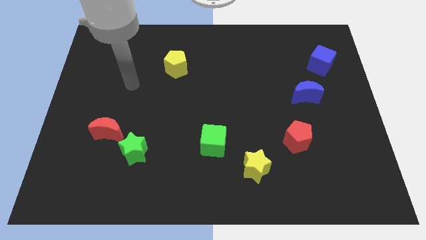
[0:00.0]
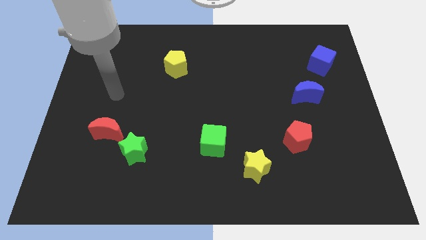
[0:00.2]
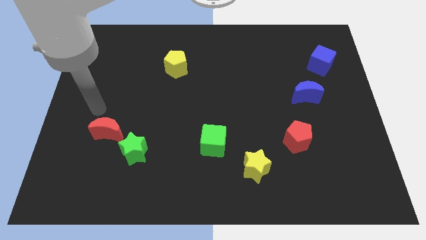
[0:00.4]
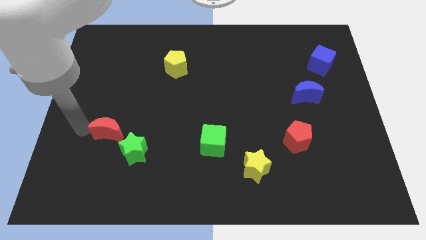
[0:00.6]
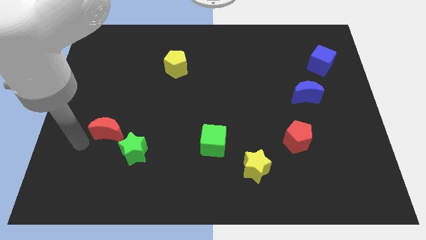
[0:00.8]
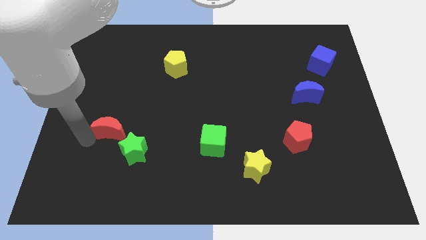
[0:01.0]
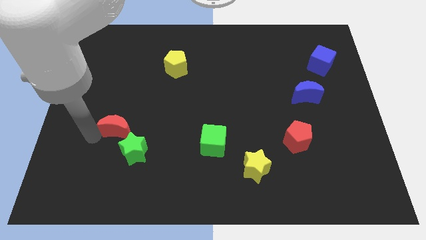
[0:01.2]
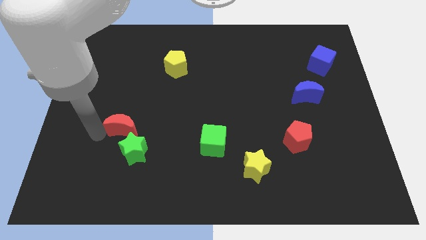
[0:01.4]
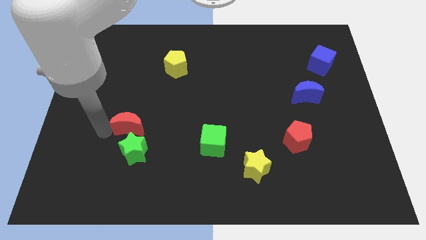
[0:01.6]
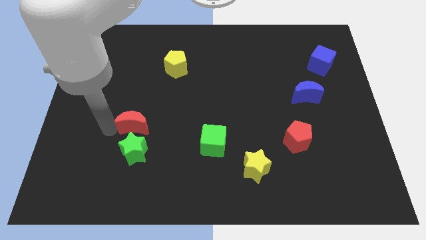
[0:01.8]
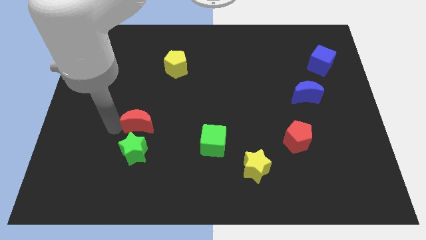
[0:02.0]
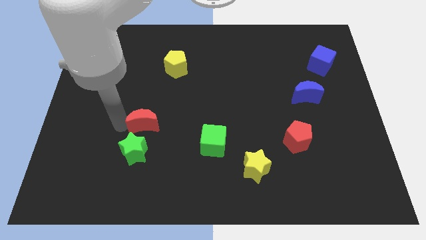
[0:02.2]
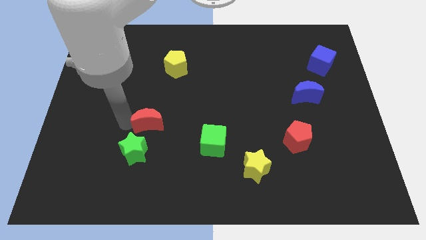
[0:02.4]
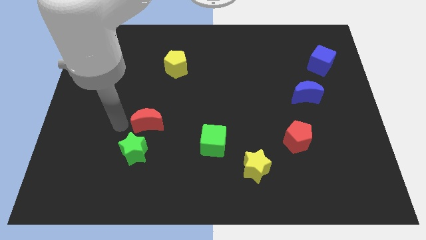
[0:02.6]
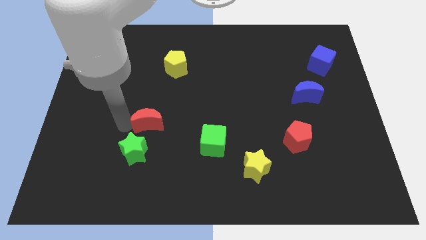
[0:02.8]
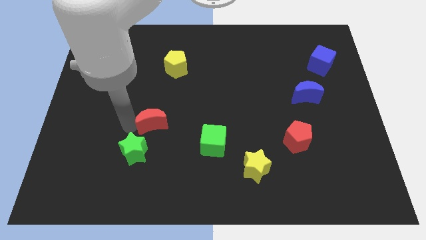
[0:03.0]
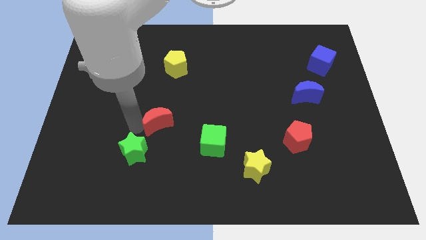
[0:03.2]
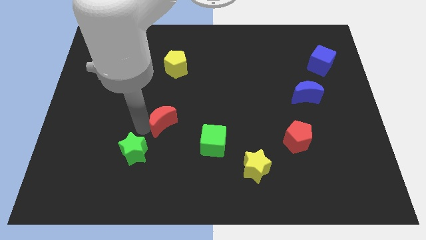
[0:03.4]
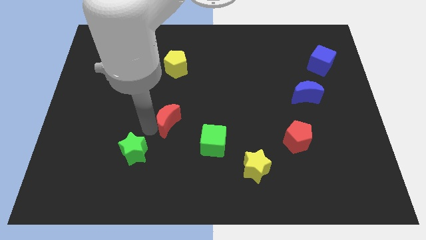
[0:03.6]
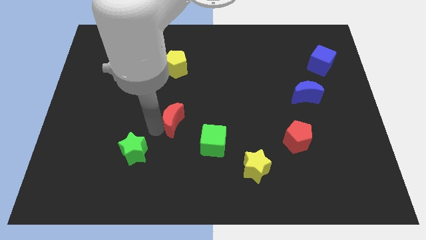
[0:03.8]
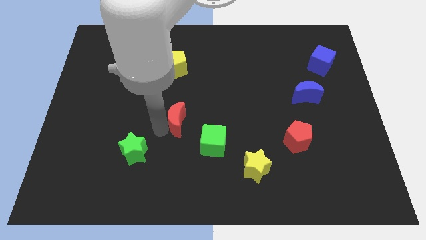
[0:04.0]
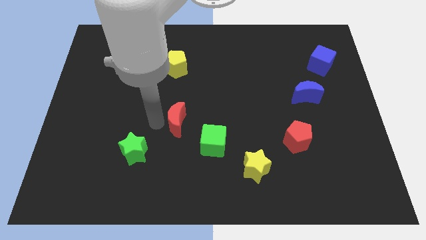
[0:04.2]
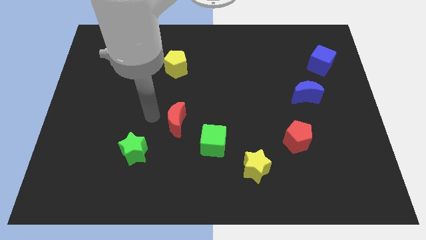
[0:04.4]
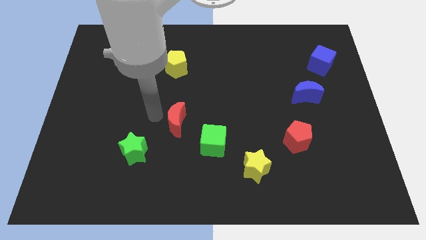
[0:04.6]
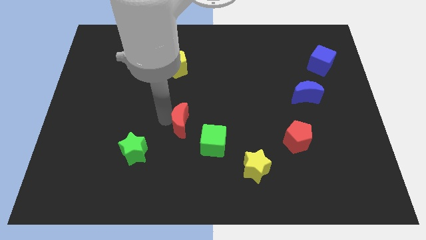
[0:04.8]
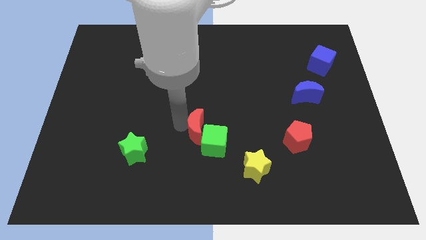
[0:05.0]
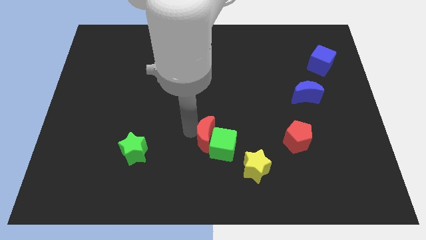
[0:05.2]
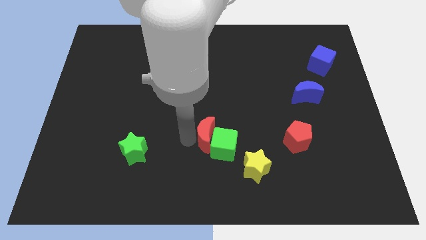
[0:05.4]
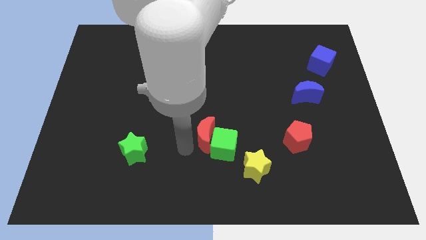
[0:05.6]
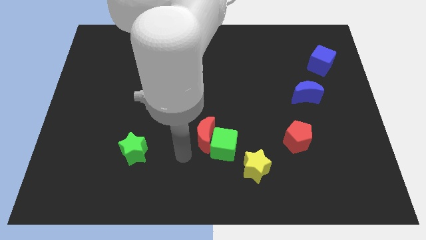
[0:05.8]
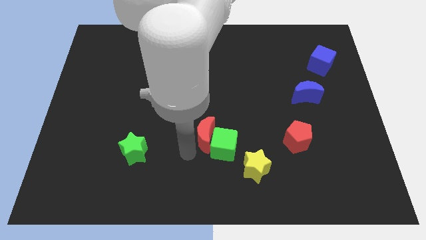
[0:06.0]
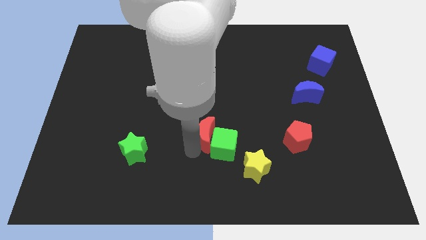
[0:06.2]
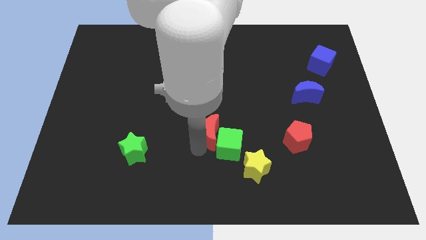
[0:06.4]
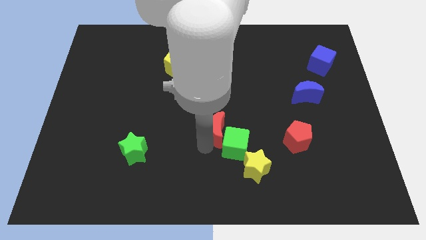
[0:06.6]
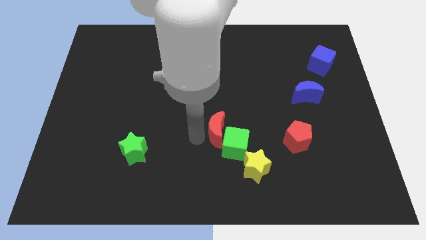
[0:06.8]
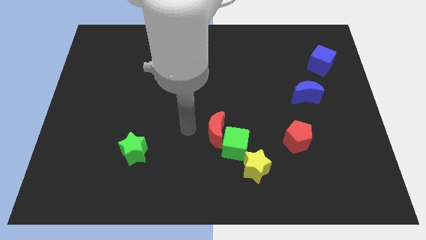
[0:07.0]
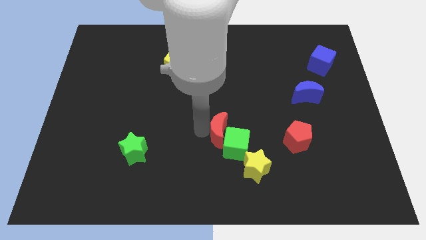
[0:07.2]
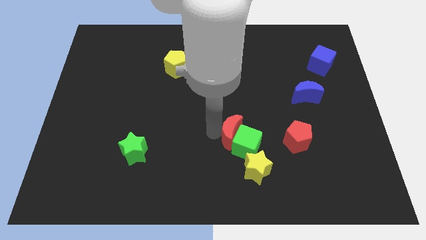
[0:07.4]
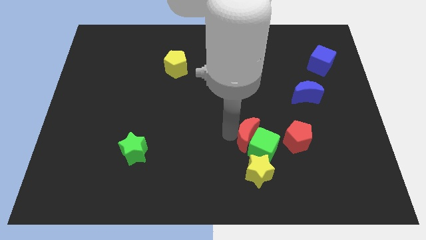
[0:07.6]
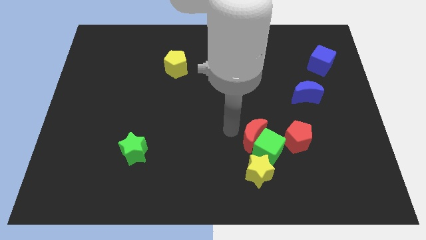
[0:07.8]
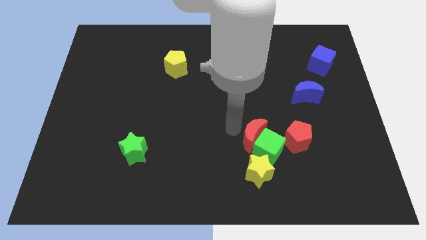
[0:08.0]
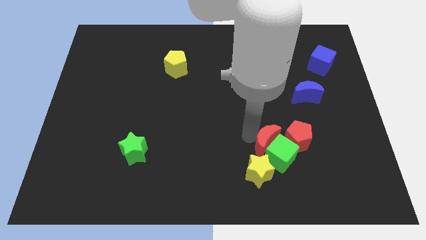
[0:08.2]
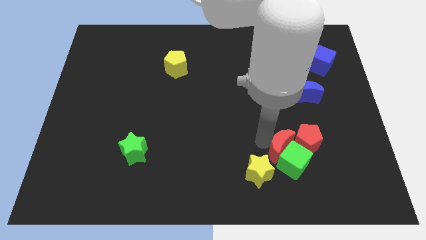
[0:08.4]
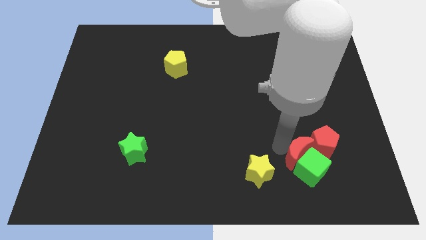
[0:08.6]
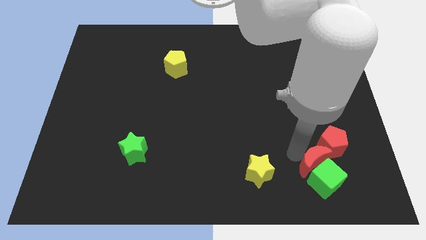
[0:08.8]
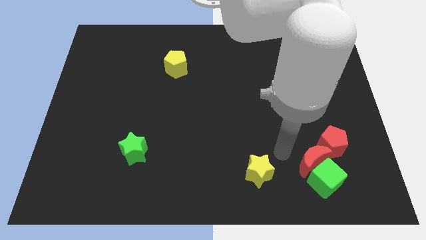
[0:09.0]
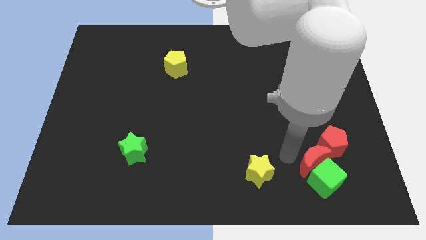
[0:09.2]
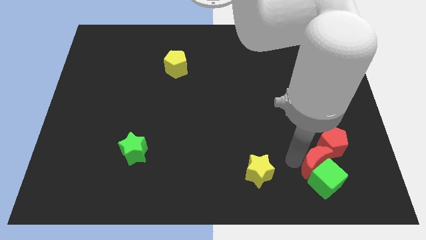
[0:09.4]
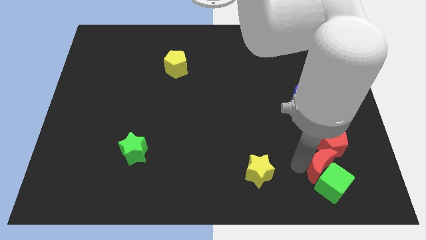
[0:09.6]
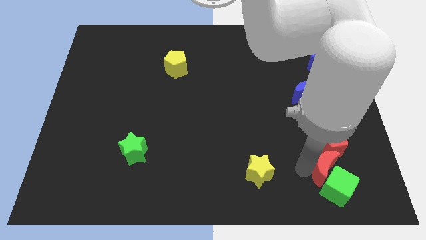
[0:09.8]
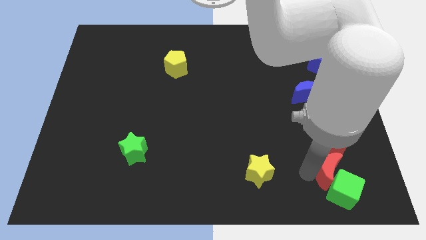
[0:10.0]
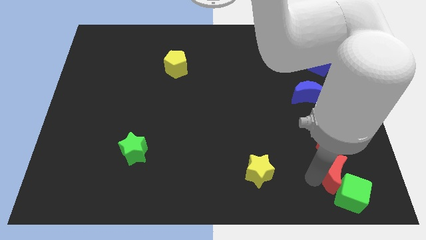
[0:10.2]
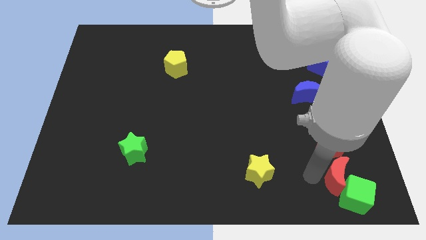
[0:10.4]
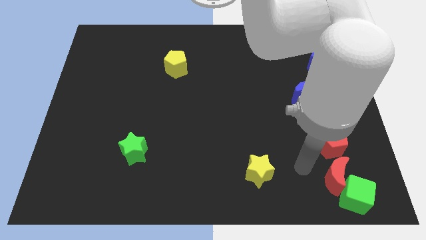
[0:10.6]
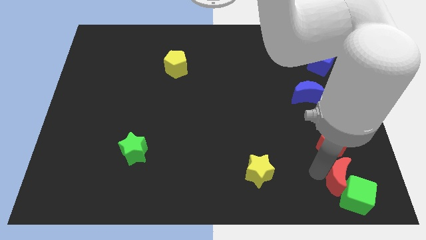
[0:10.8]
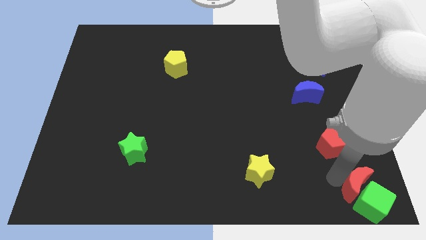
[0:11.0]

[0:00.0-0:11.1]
push the red moon to the bottom right corner

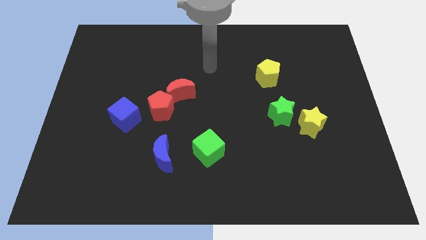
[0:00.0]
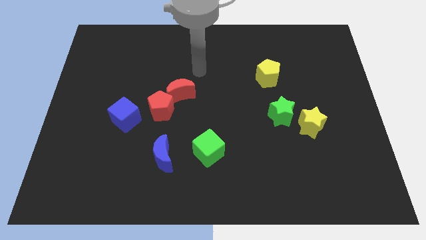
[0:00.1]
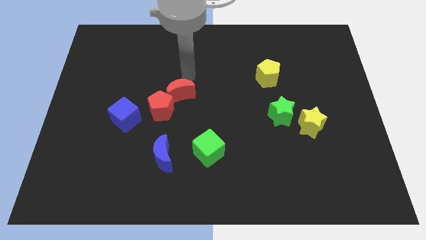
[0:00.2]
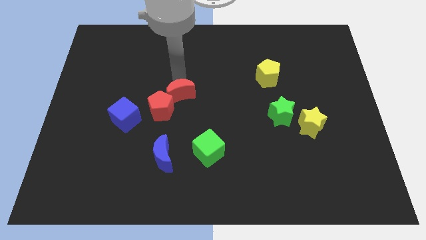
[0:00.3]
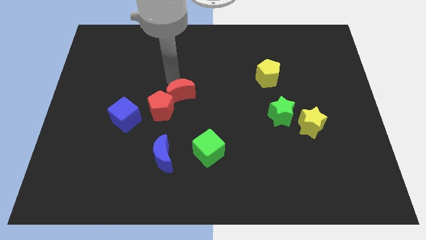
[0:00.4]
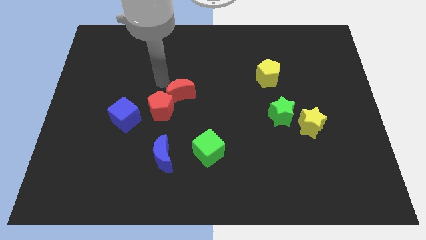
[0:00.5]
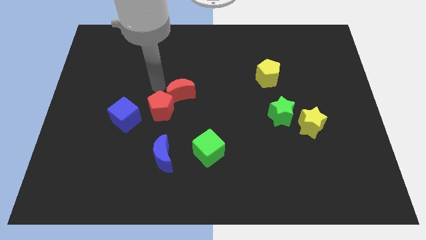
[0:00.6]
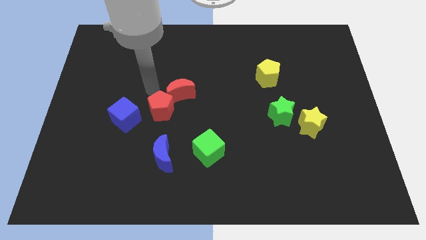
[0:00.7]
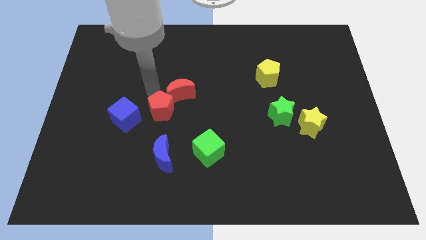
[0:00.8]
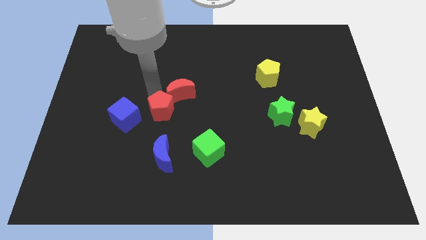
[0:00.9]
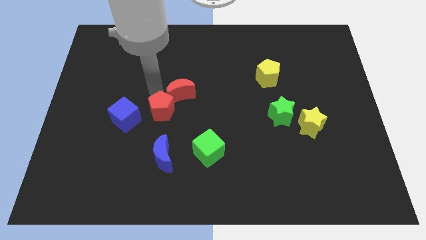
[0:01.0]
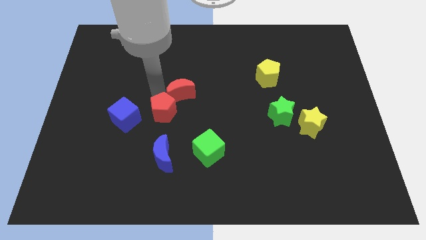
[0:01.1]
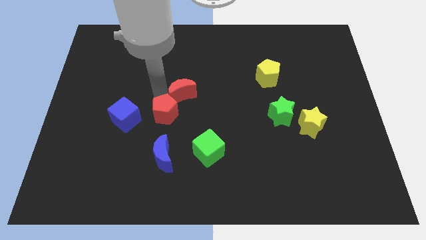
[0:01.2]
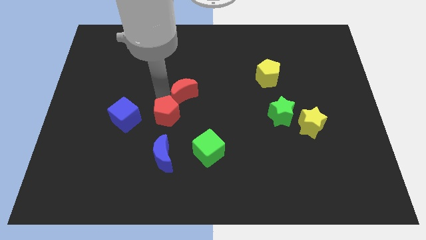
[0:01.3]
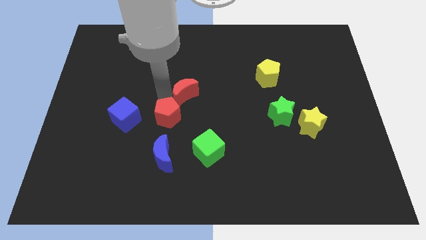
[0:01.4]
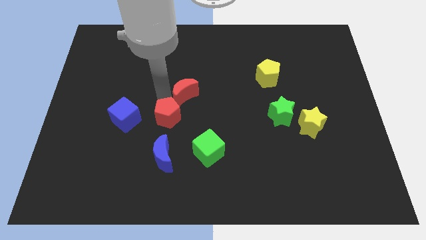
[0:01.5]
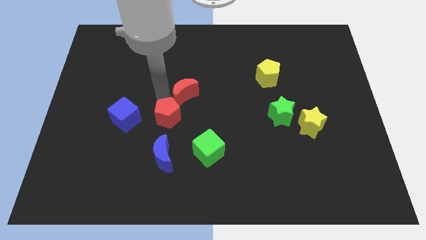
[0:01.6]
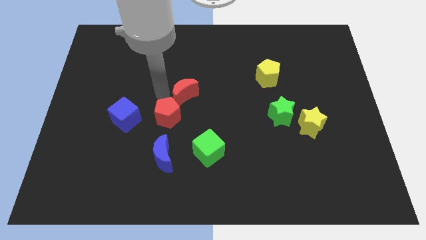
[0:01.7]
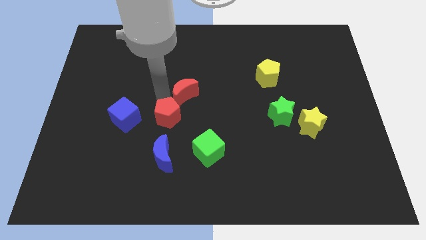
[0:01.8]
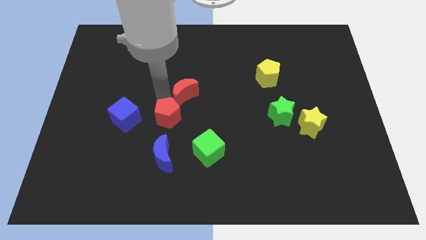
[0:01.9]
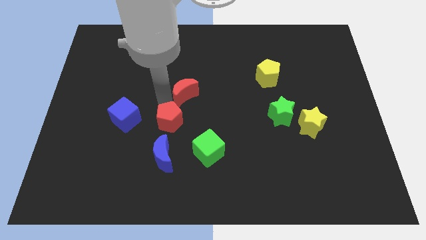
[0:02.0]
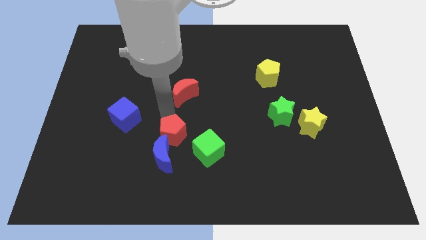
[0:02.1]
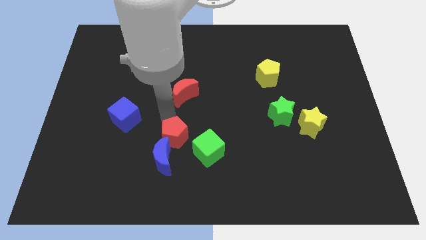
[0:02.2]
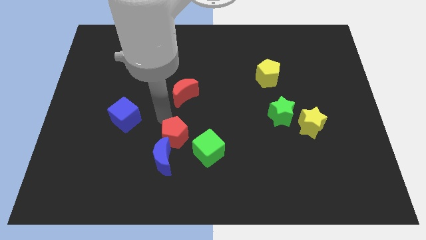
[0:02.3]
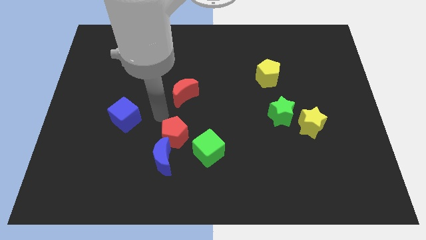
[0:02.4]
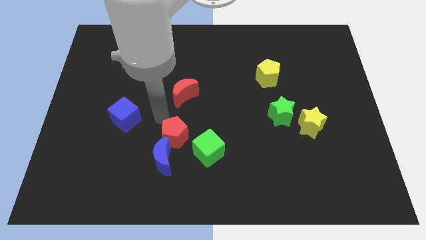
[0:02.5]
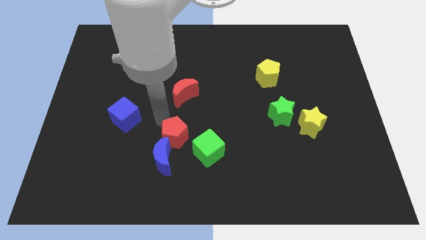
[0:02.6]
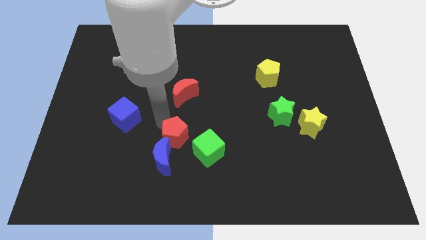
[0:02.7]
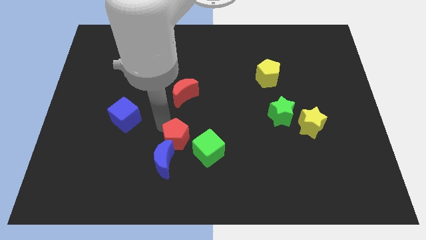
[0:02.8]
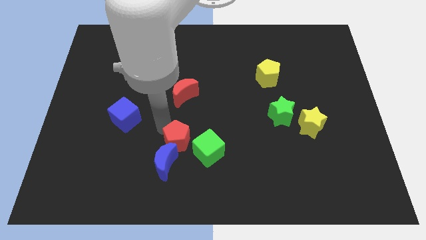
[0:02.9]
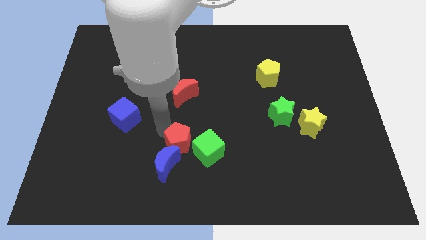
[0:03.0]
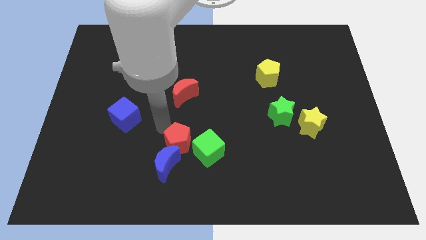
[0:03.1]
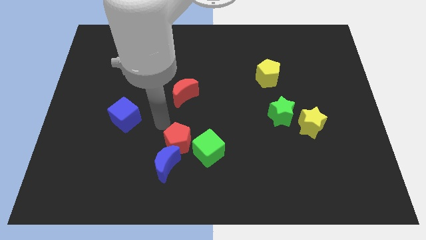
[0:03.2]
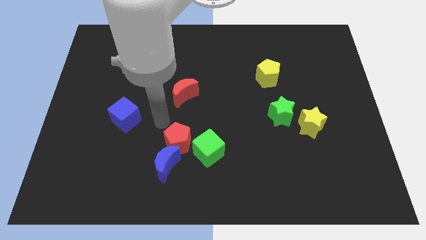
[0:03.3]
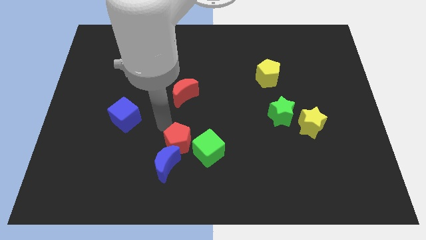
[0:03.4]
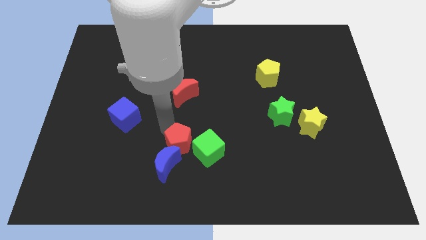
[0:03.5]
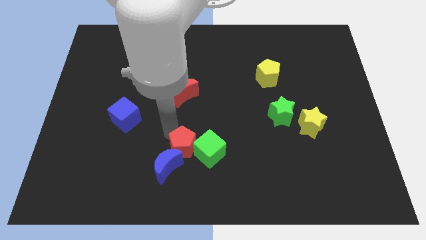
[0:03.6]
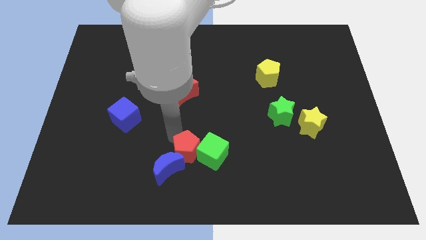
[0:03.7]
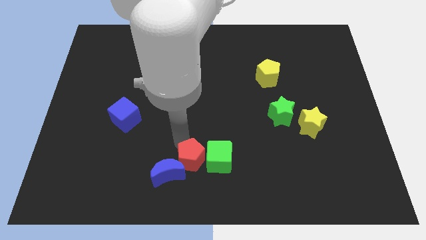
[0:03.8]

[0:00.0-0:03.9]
slide the red pentagon to the bottom
